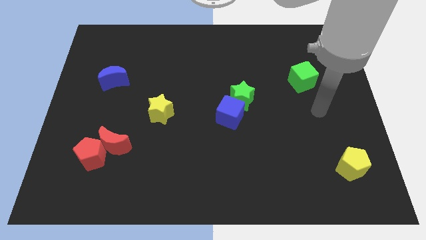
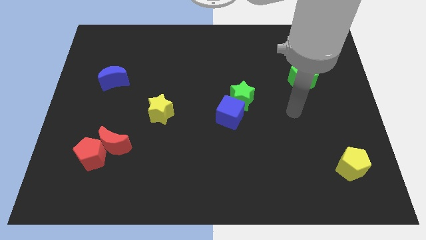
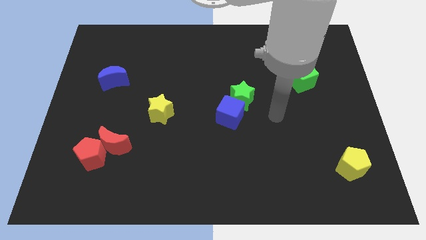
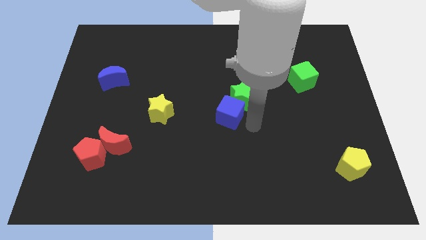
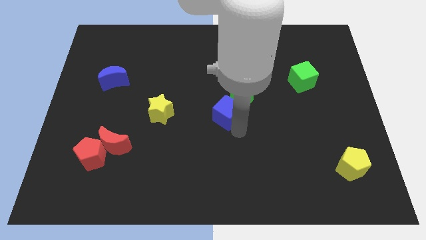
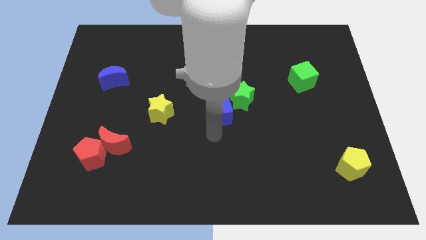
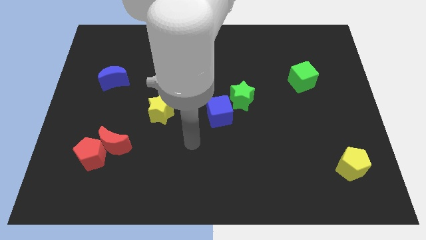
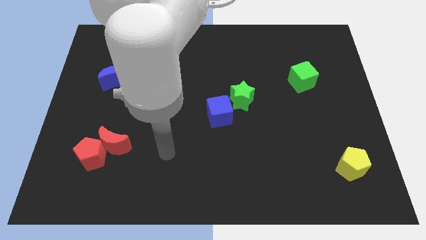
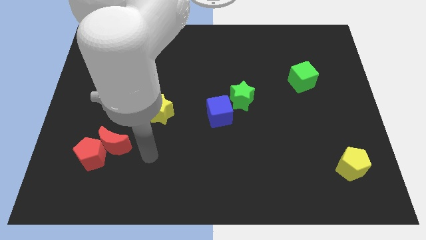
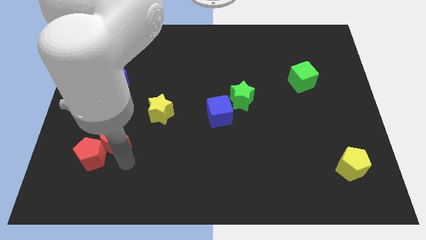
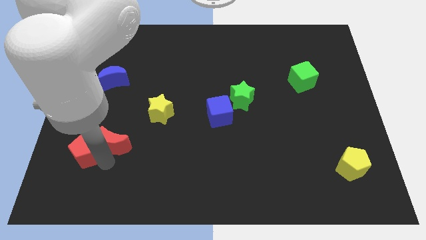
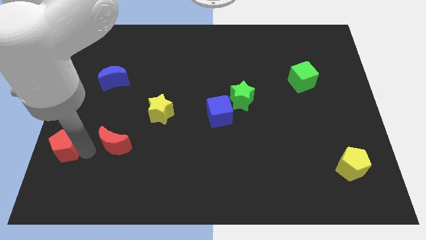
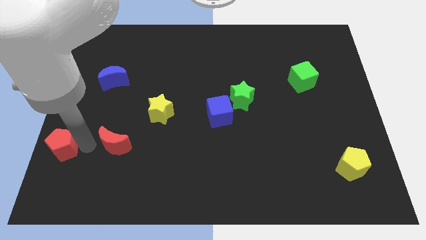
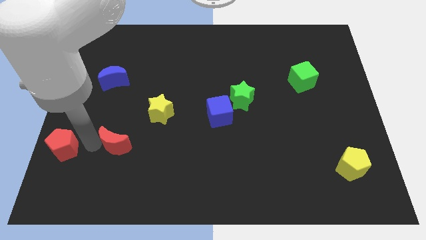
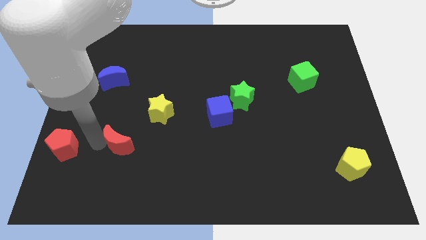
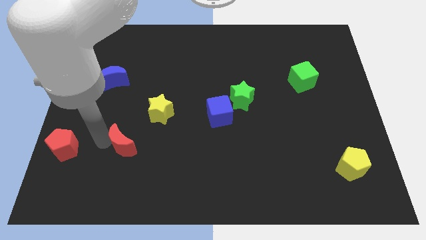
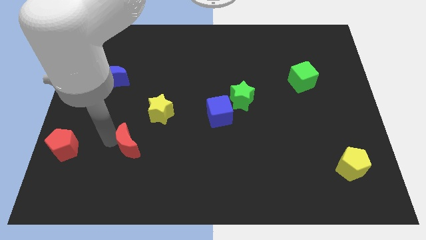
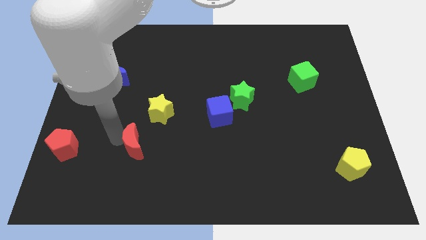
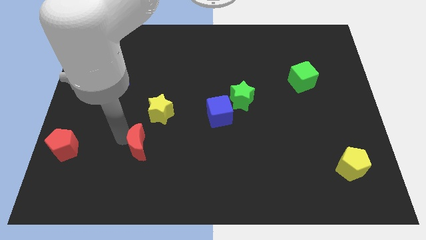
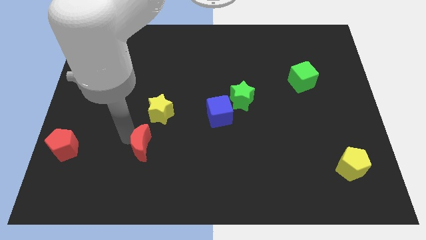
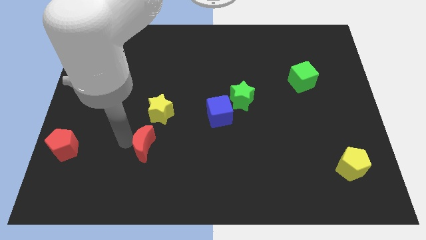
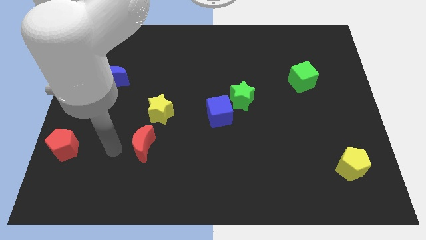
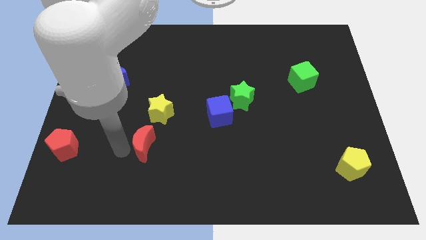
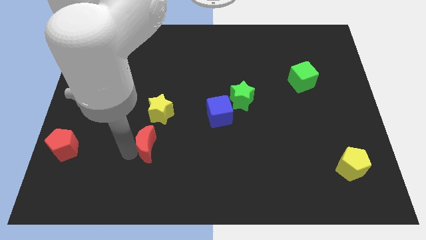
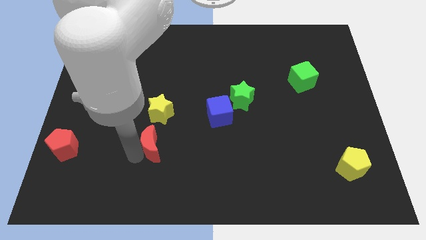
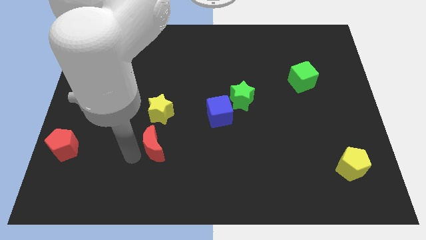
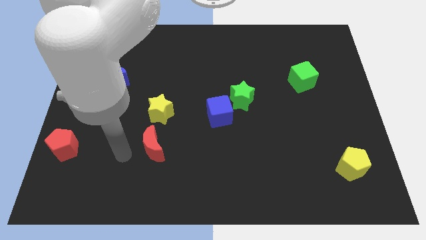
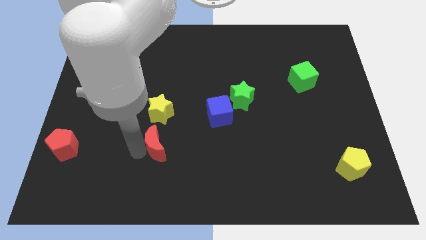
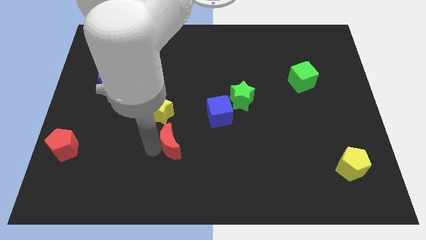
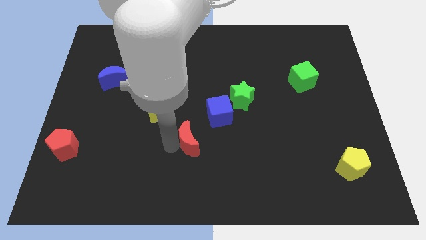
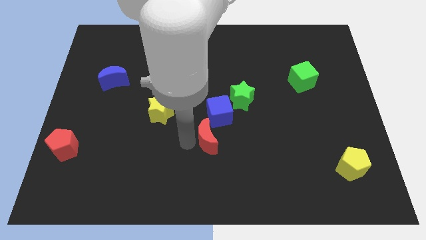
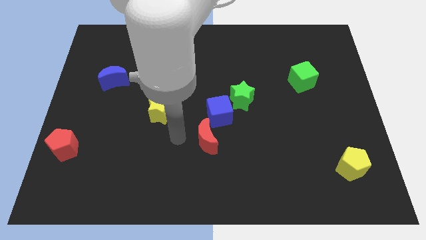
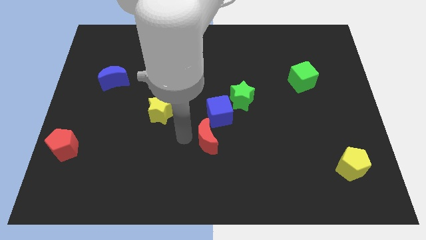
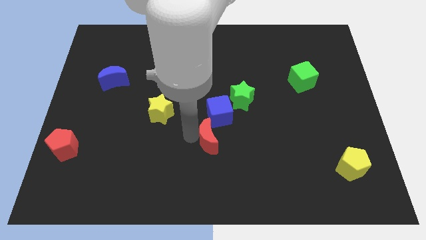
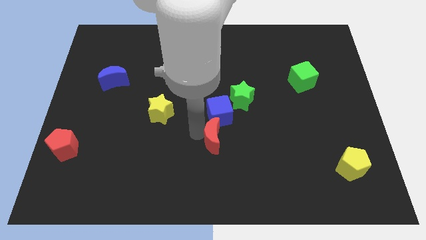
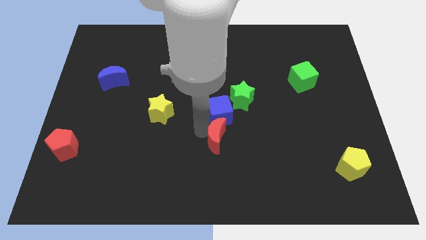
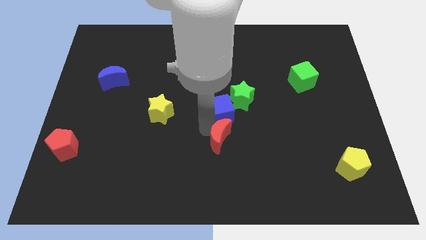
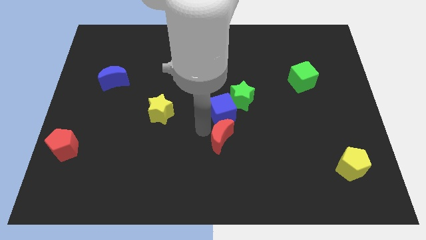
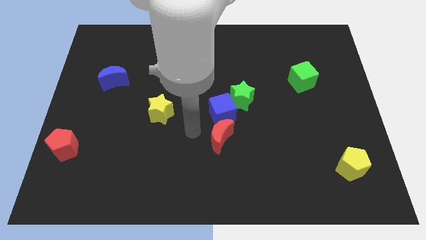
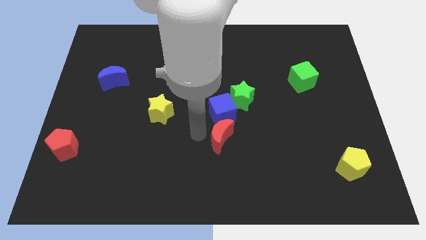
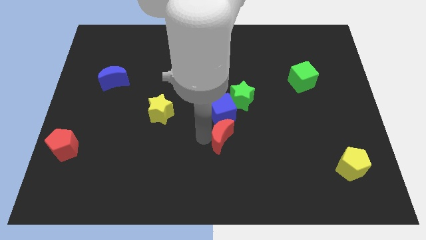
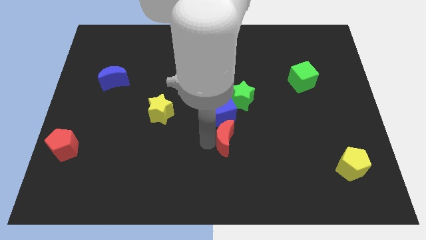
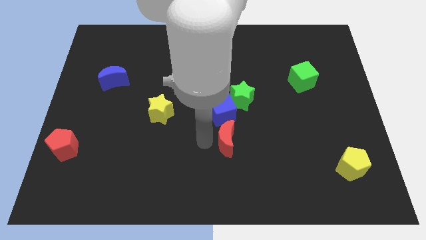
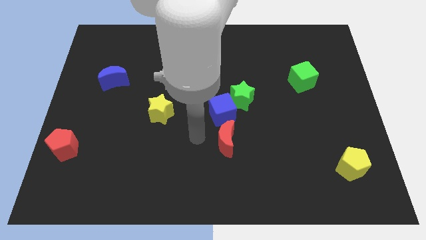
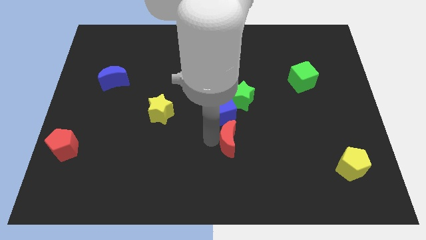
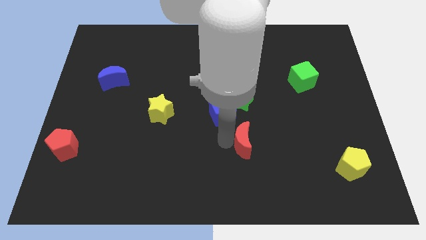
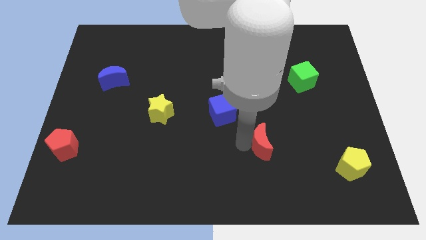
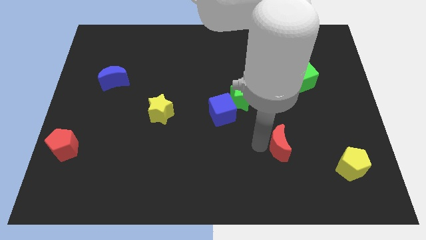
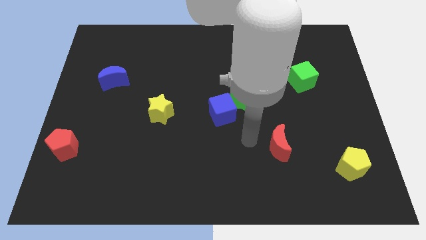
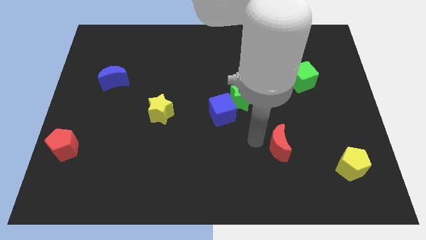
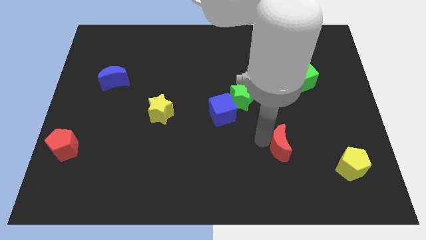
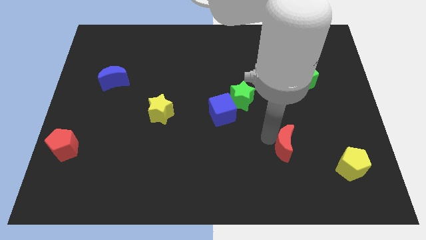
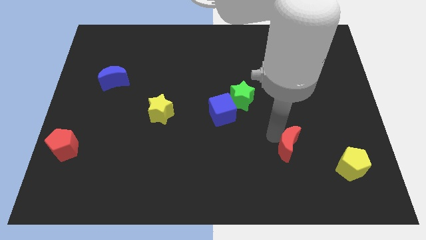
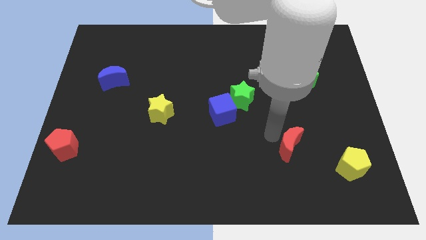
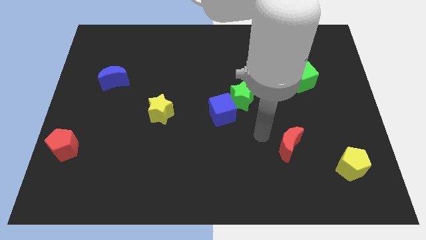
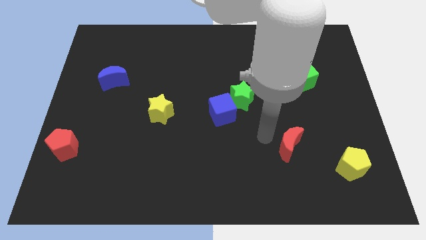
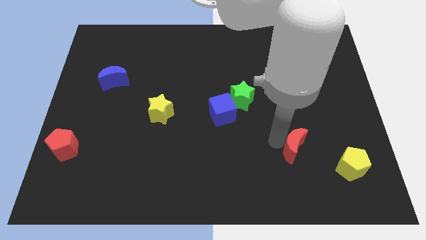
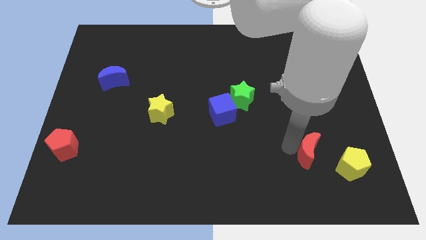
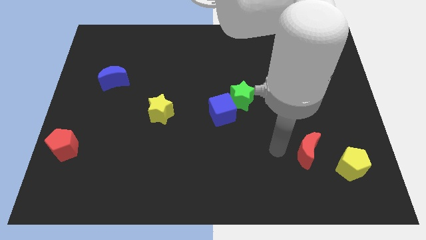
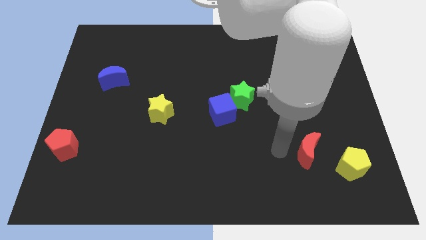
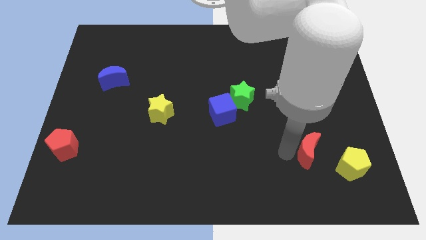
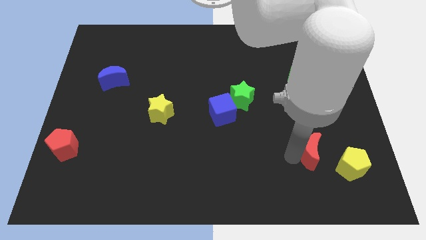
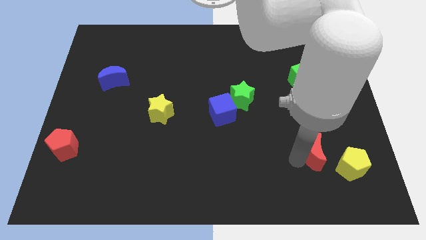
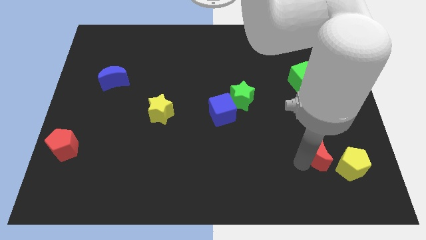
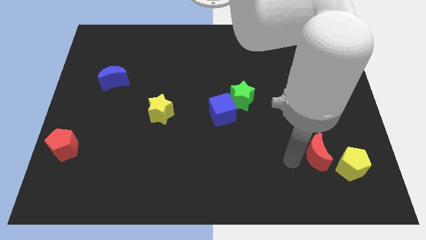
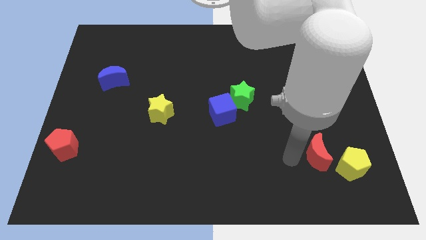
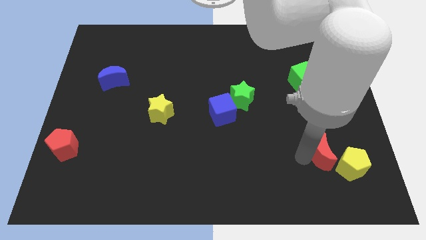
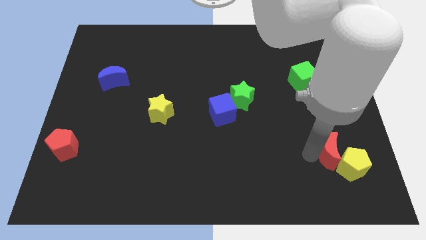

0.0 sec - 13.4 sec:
push the red moon to the yellow pentagon
